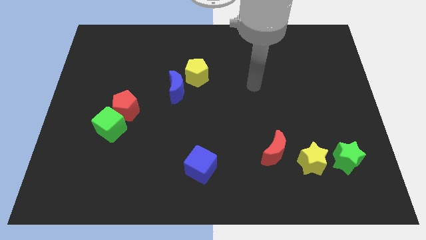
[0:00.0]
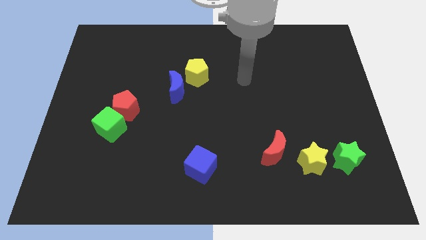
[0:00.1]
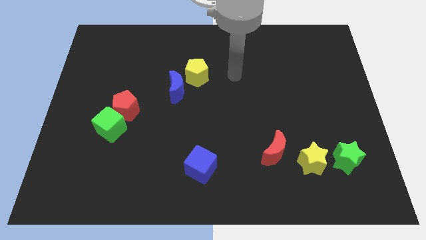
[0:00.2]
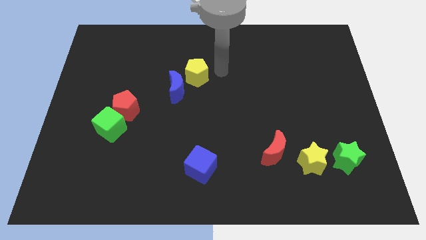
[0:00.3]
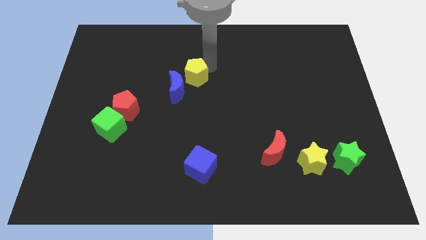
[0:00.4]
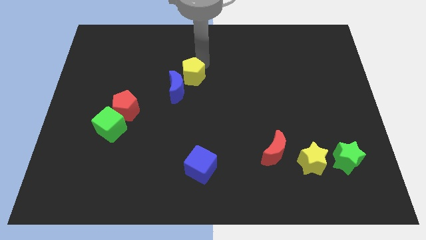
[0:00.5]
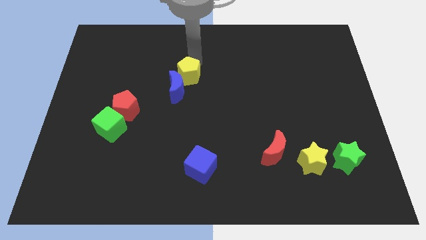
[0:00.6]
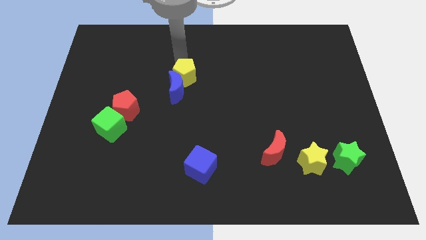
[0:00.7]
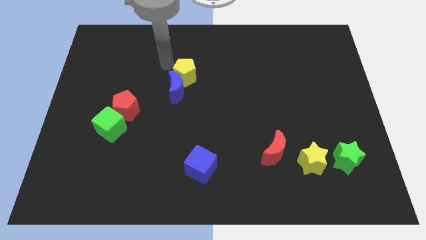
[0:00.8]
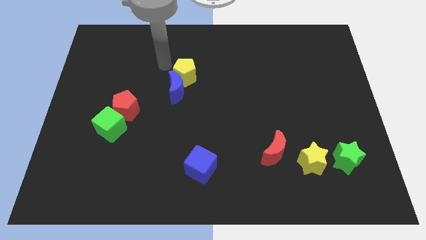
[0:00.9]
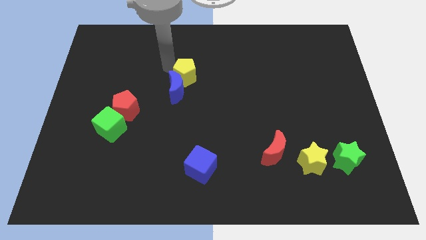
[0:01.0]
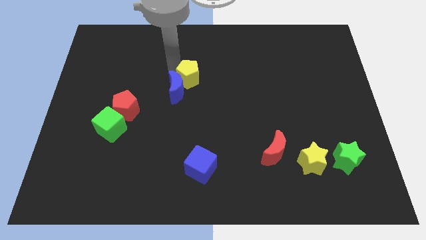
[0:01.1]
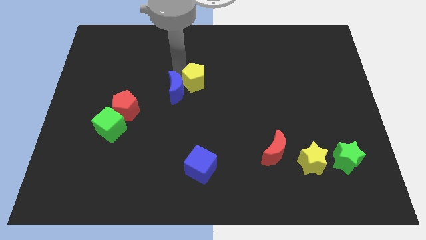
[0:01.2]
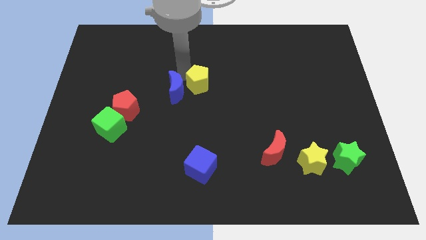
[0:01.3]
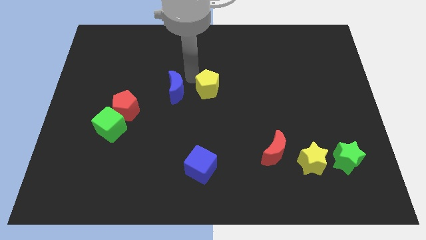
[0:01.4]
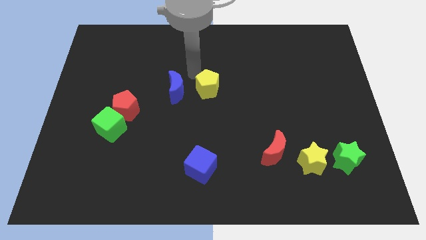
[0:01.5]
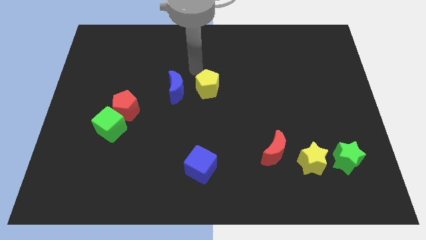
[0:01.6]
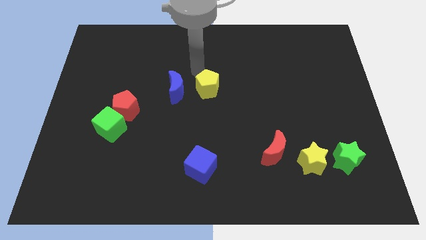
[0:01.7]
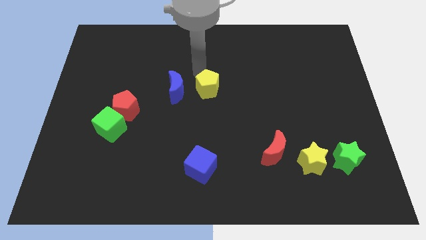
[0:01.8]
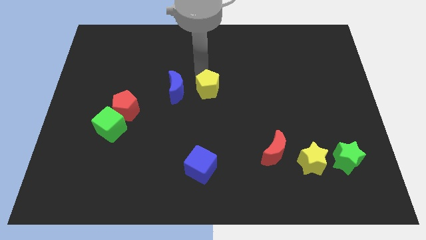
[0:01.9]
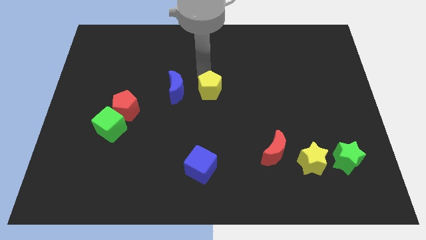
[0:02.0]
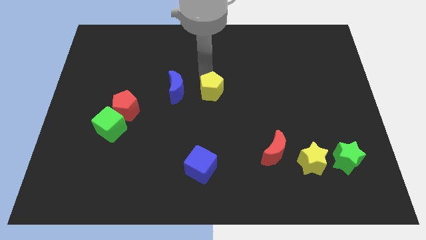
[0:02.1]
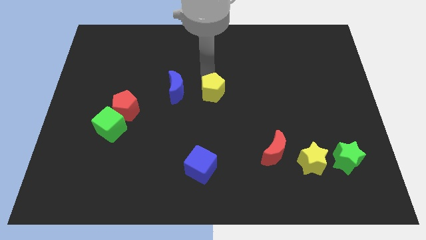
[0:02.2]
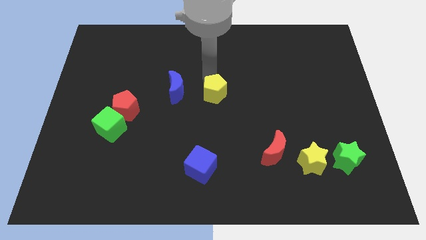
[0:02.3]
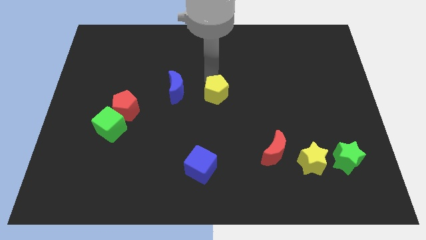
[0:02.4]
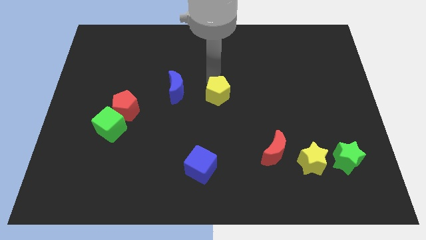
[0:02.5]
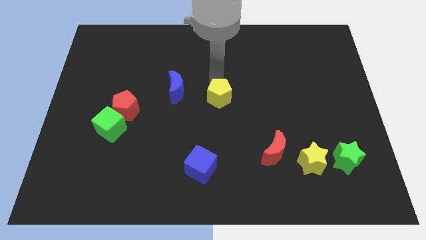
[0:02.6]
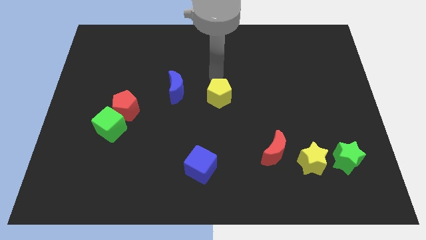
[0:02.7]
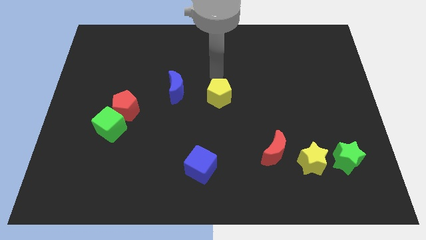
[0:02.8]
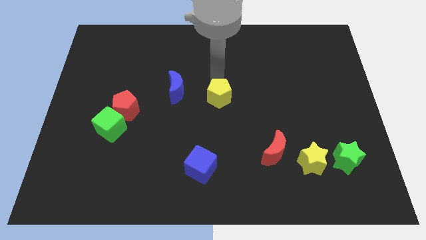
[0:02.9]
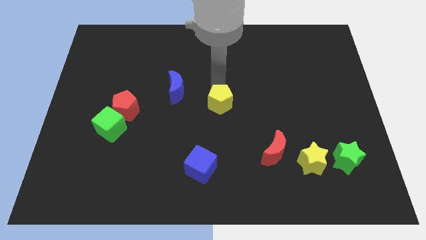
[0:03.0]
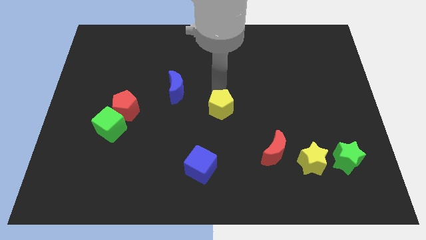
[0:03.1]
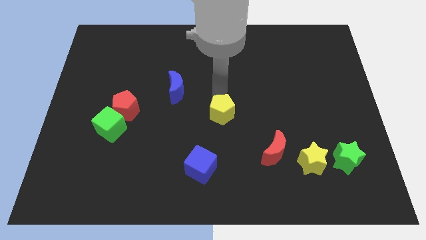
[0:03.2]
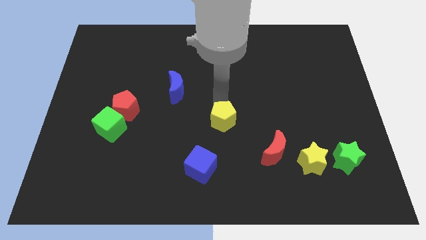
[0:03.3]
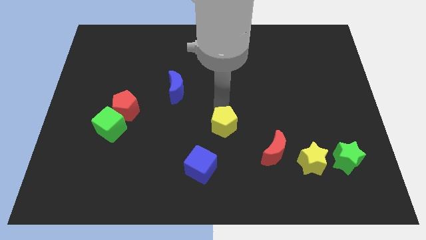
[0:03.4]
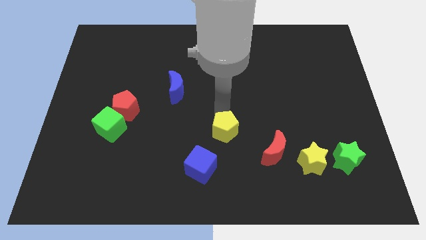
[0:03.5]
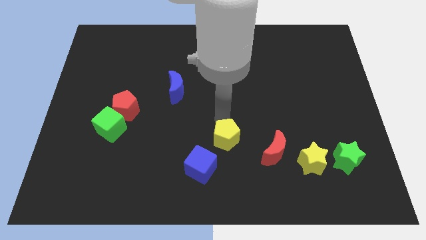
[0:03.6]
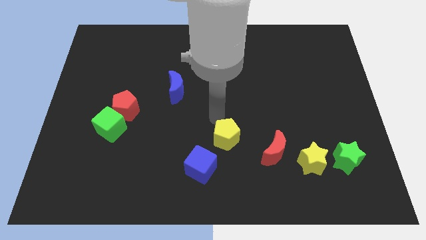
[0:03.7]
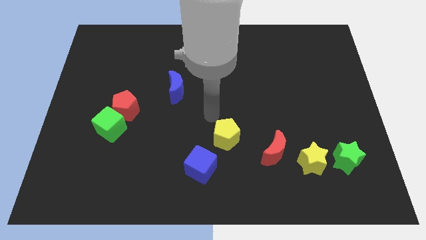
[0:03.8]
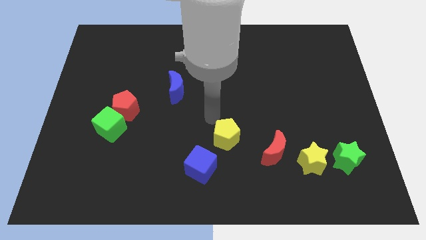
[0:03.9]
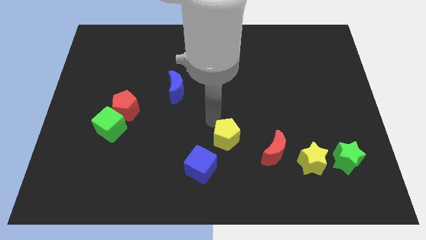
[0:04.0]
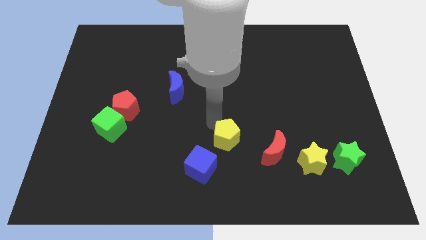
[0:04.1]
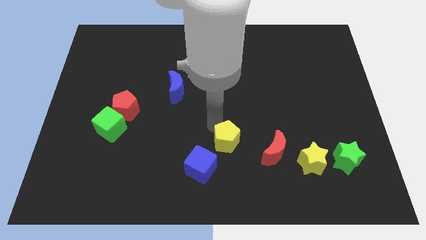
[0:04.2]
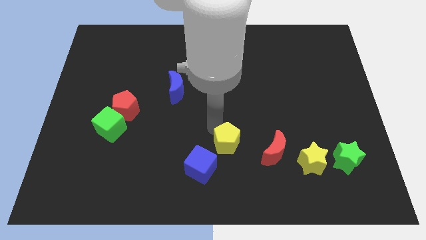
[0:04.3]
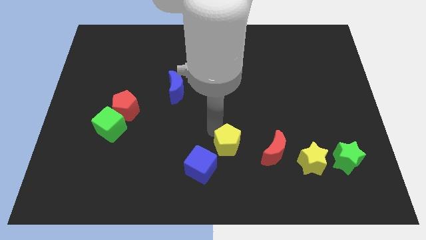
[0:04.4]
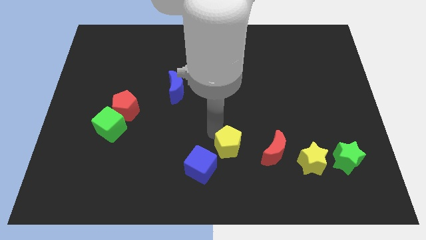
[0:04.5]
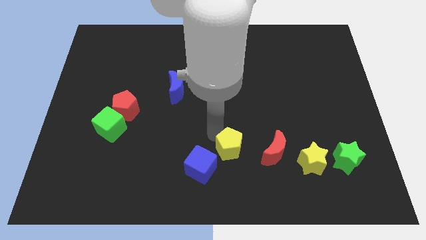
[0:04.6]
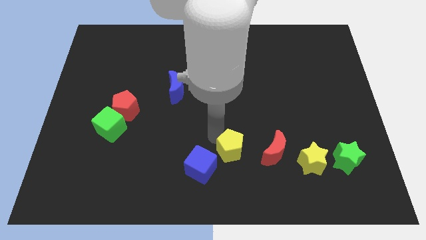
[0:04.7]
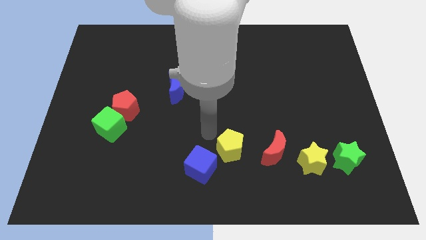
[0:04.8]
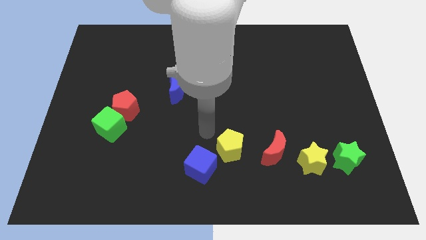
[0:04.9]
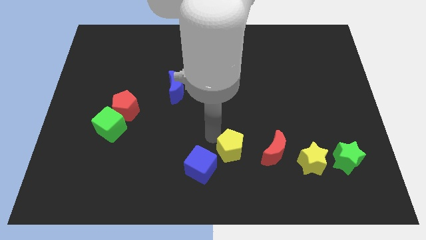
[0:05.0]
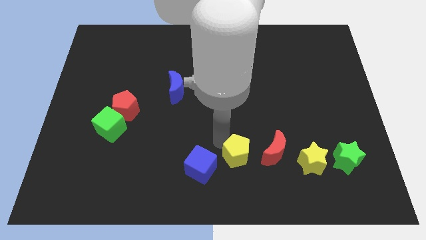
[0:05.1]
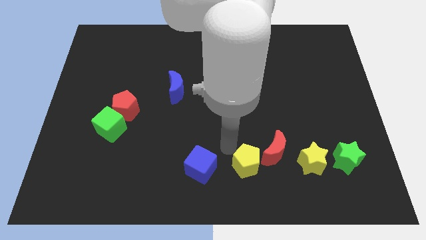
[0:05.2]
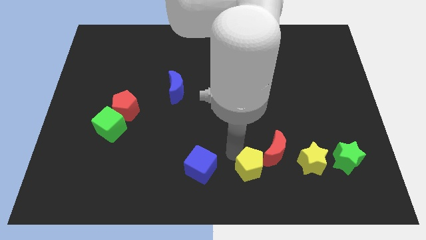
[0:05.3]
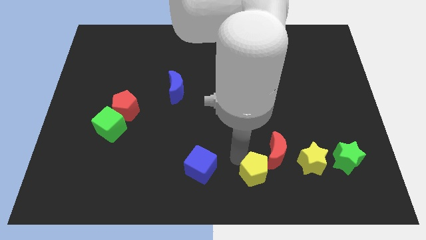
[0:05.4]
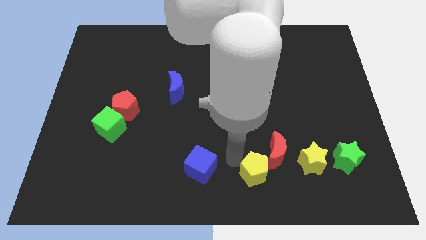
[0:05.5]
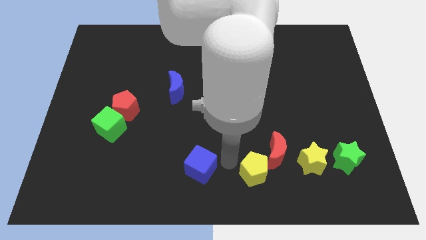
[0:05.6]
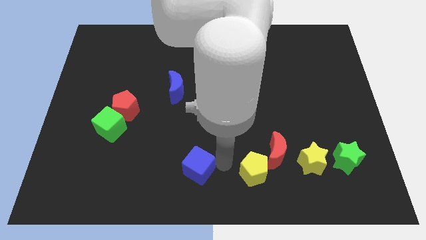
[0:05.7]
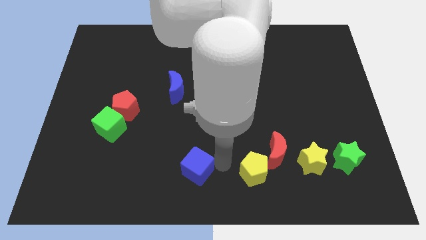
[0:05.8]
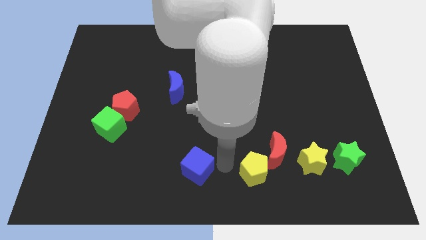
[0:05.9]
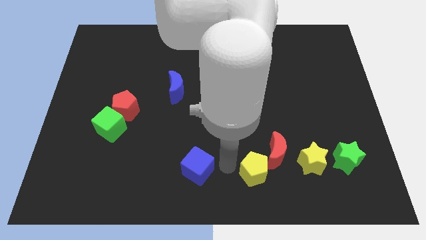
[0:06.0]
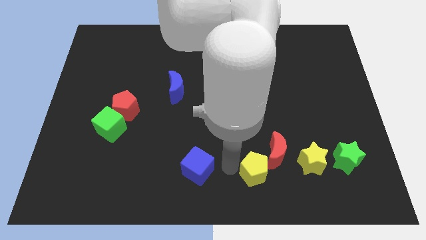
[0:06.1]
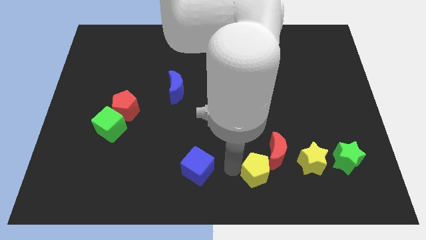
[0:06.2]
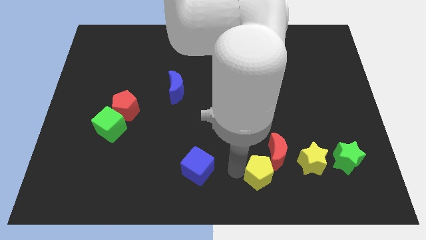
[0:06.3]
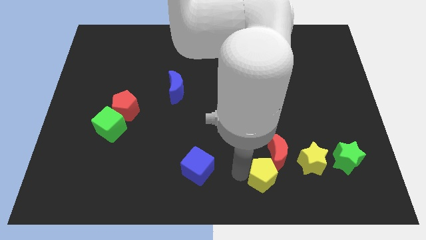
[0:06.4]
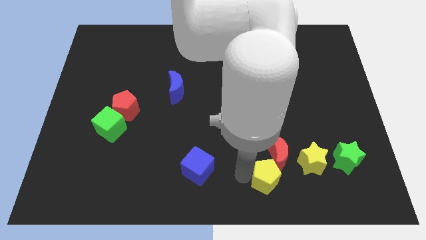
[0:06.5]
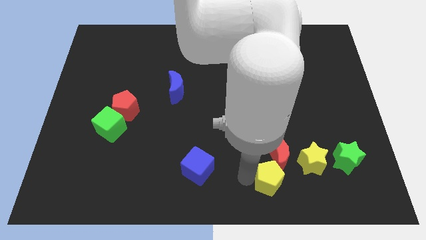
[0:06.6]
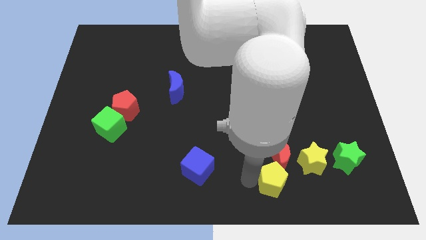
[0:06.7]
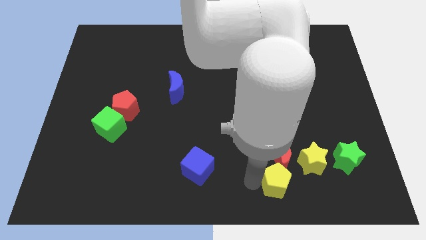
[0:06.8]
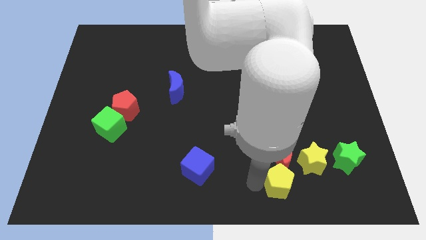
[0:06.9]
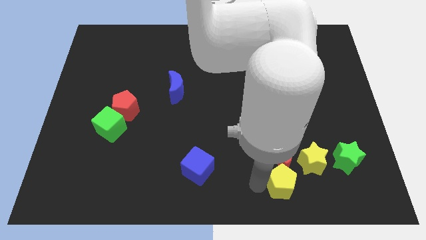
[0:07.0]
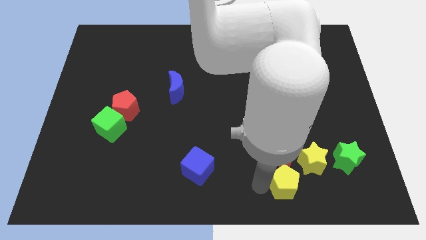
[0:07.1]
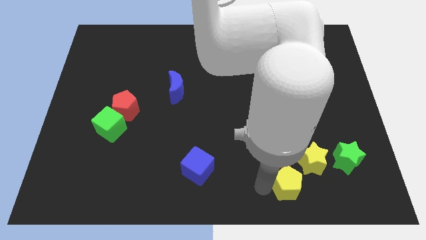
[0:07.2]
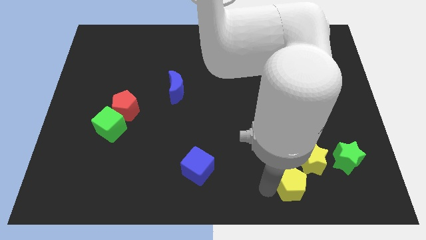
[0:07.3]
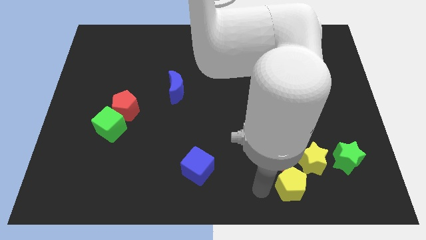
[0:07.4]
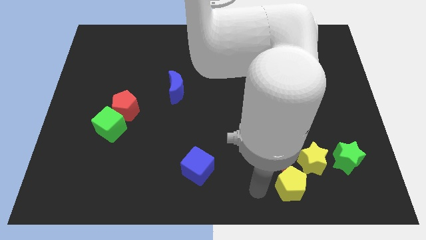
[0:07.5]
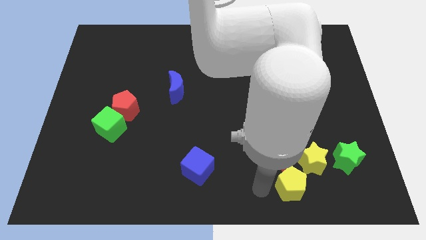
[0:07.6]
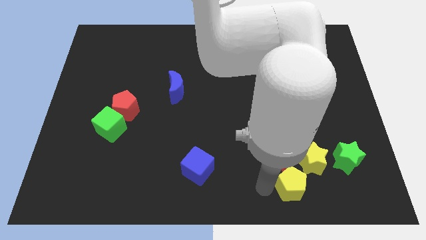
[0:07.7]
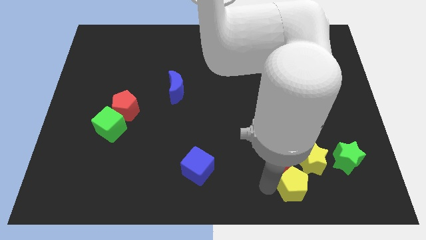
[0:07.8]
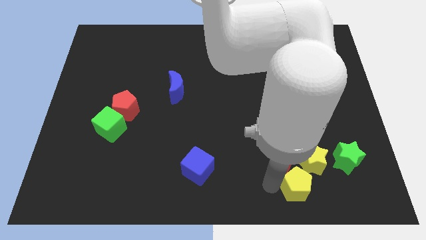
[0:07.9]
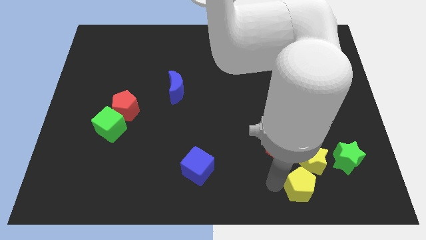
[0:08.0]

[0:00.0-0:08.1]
put the yellow pentagon to the bottom left side of the green star
